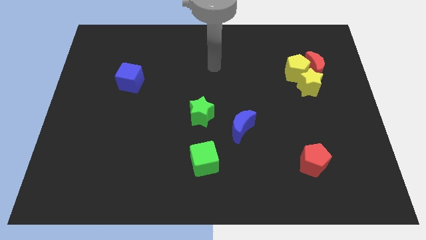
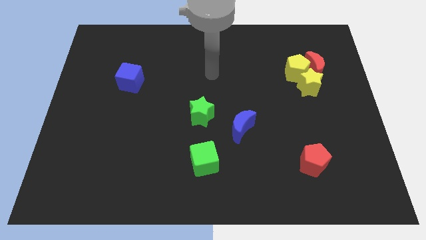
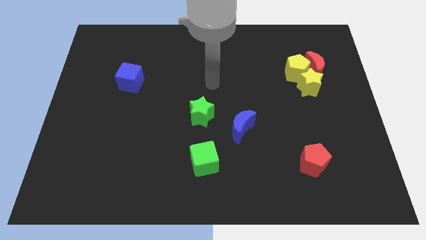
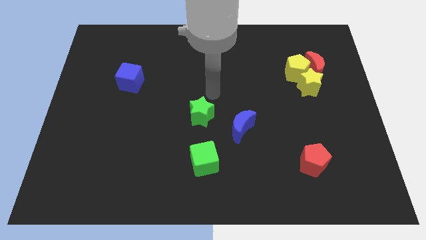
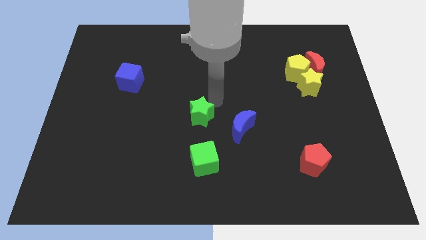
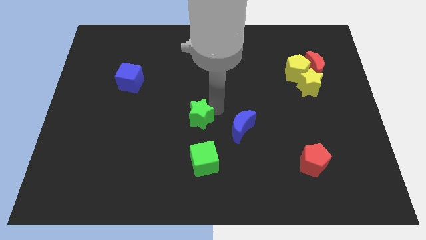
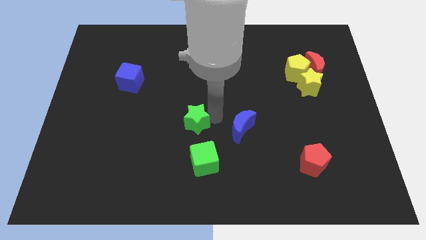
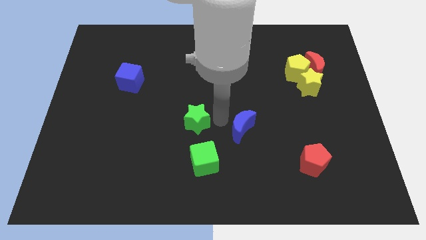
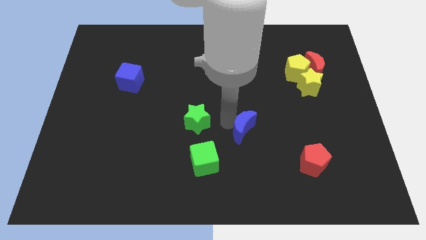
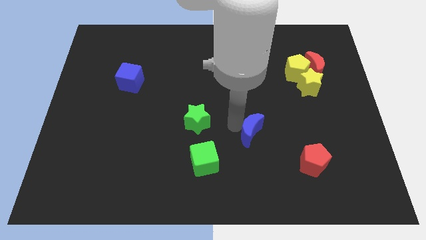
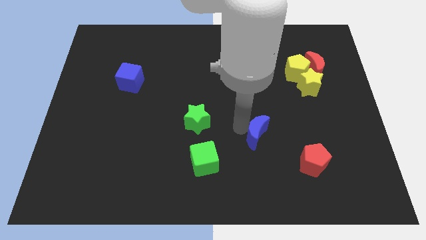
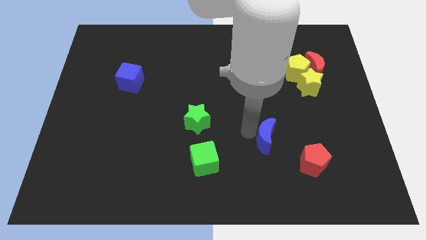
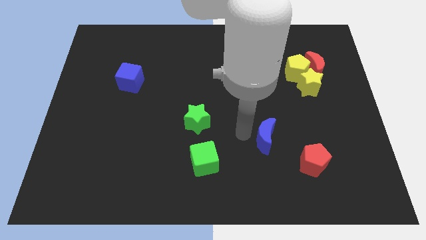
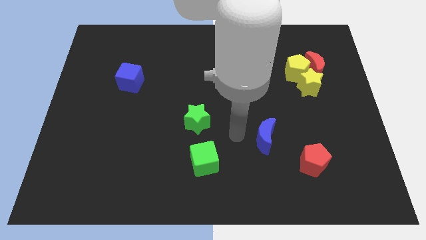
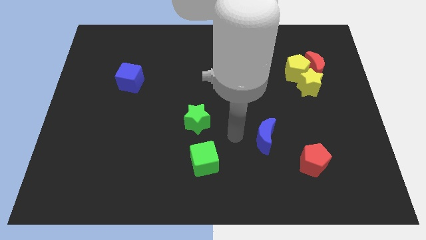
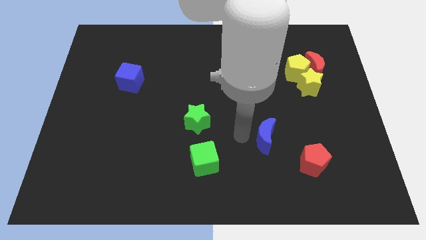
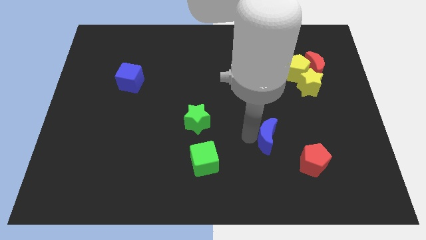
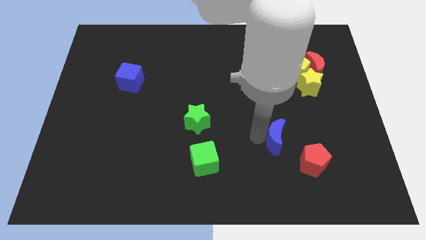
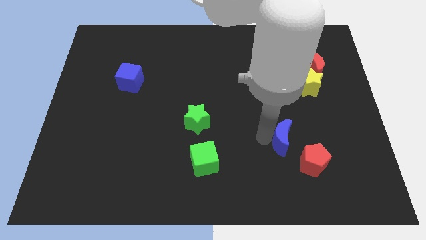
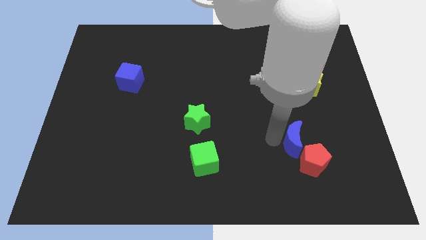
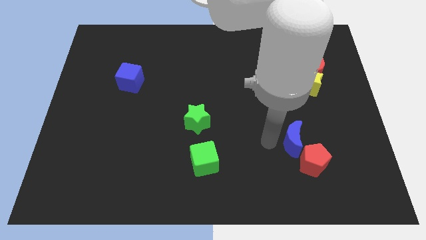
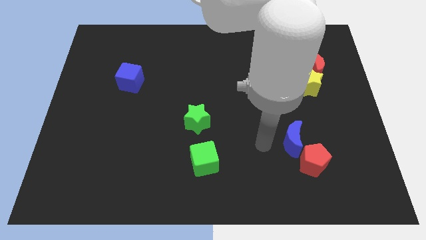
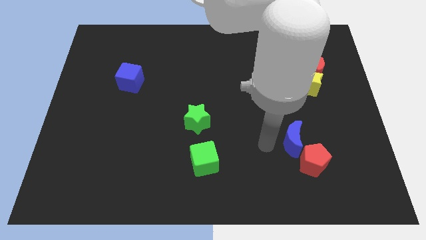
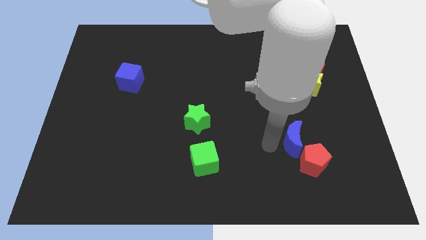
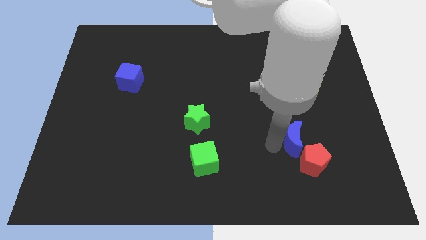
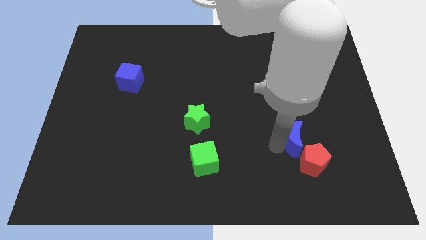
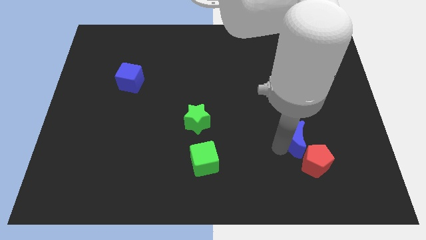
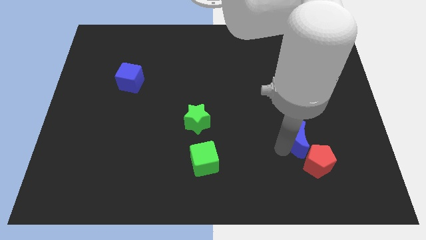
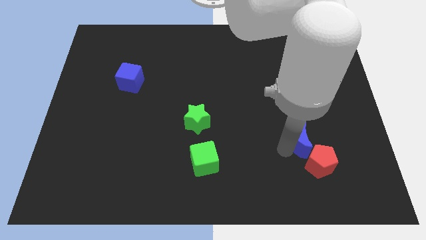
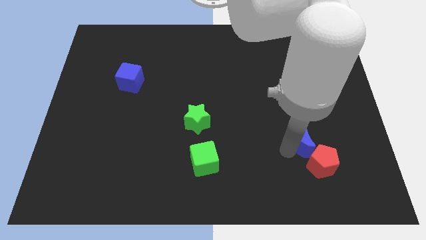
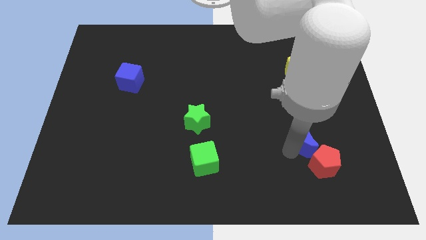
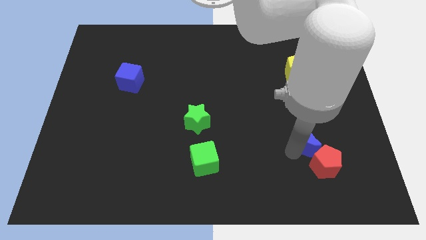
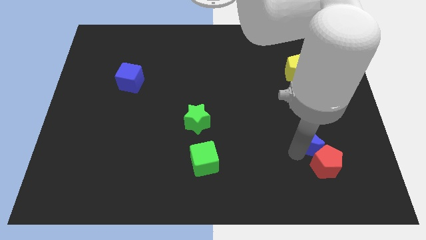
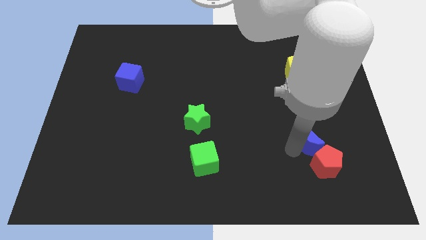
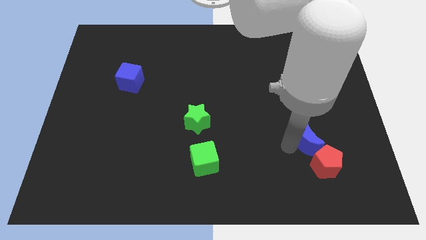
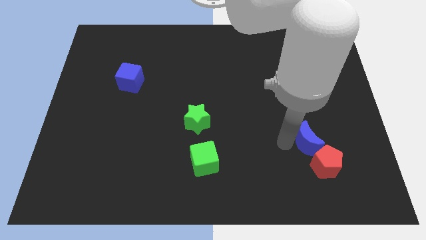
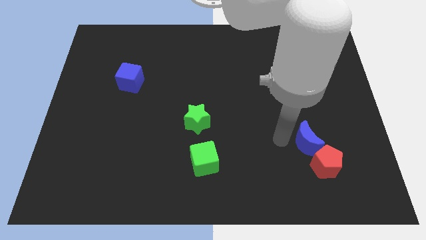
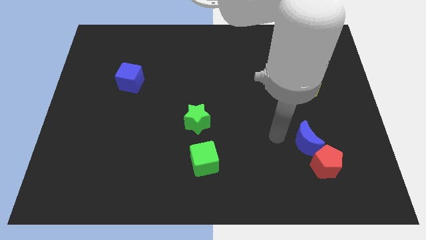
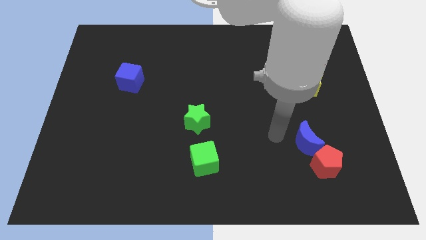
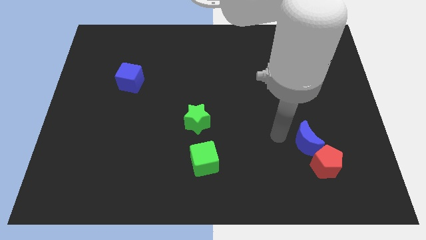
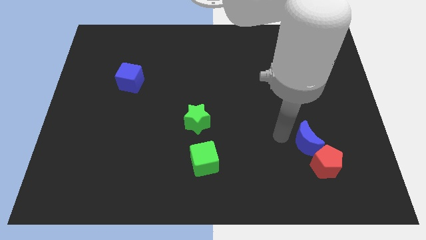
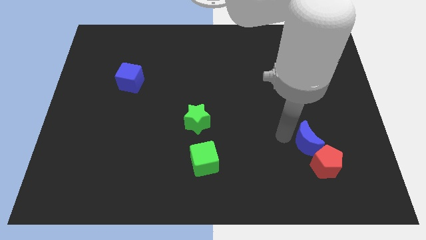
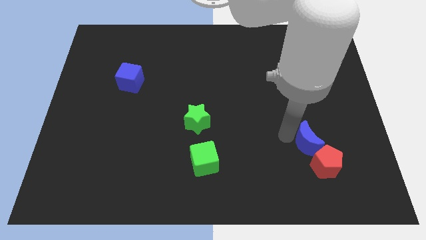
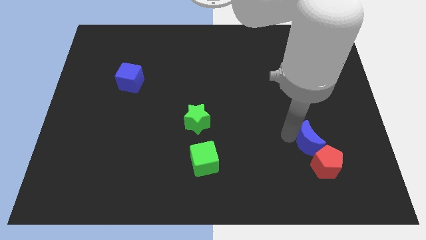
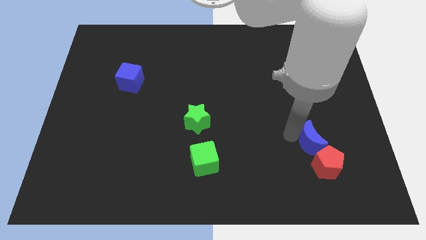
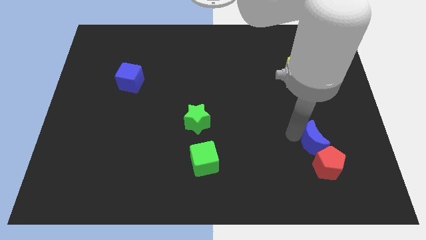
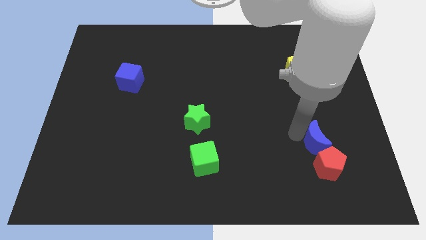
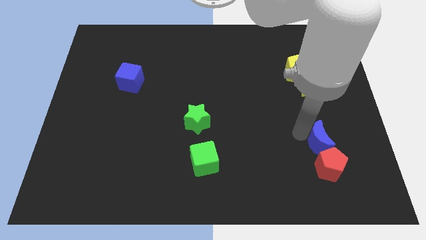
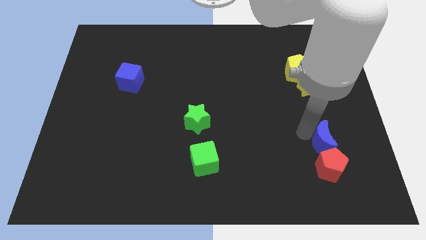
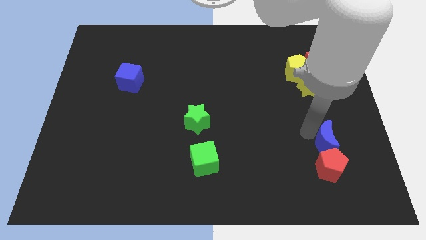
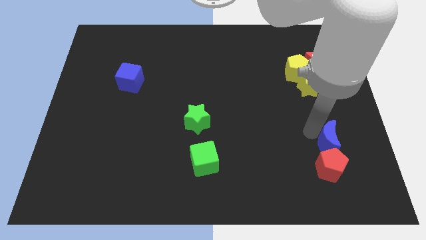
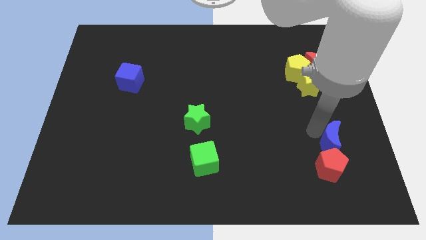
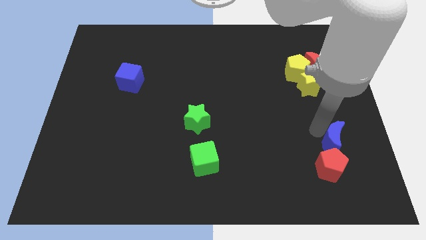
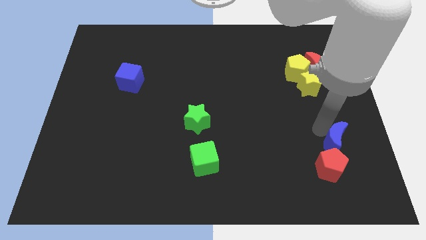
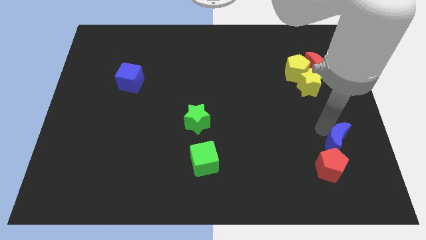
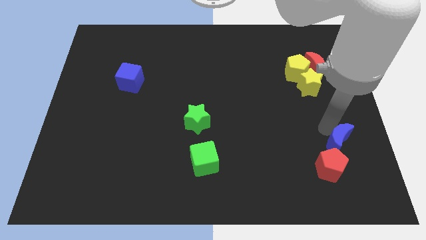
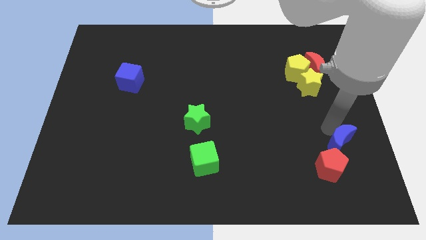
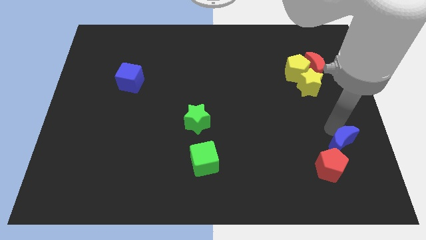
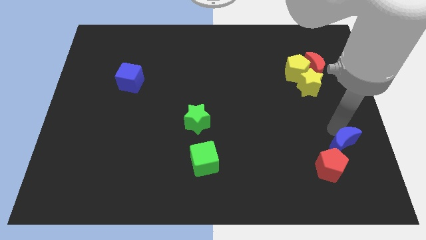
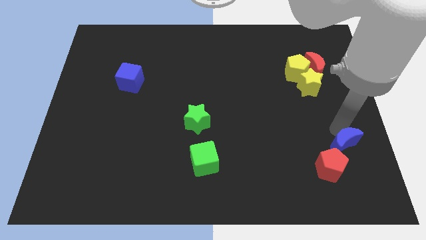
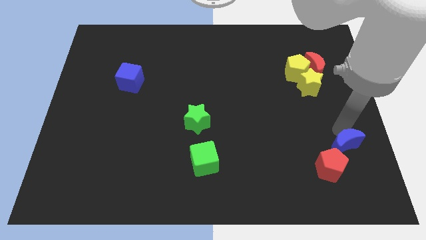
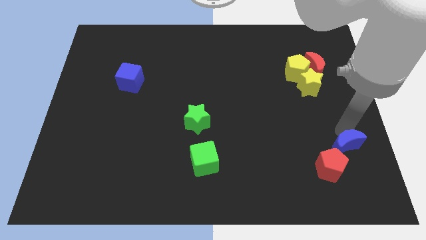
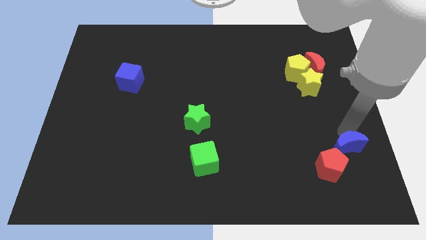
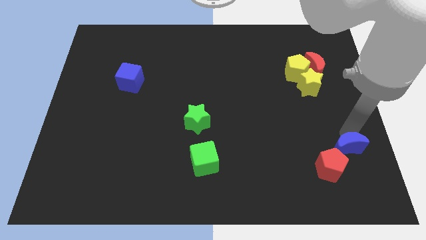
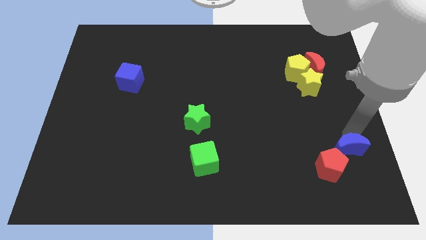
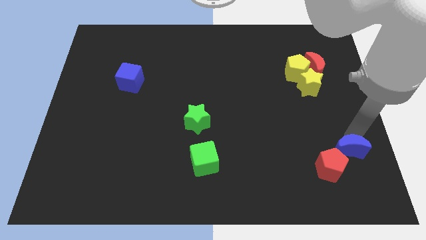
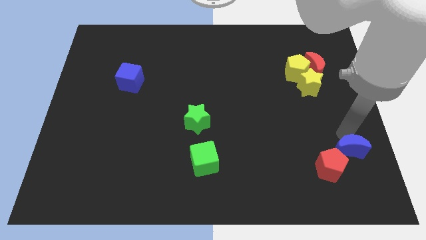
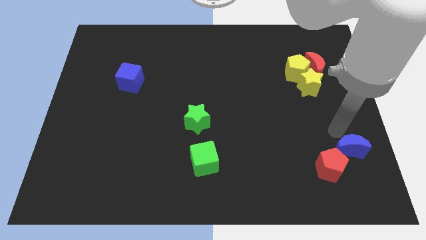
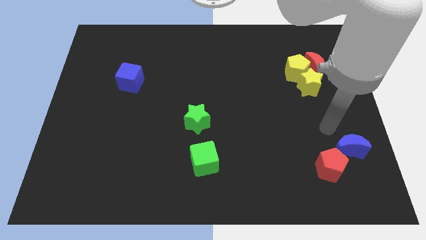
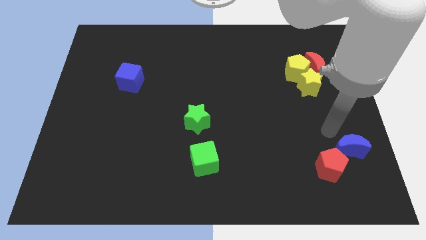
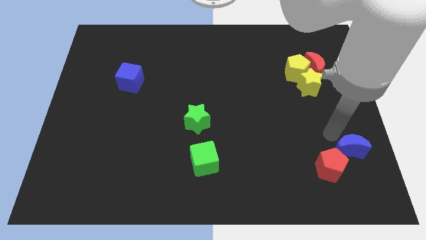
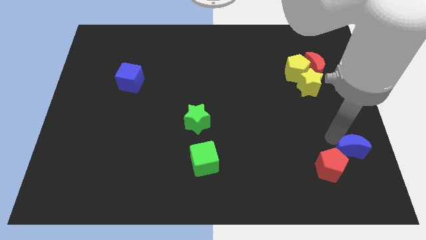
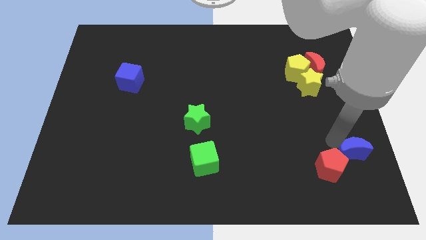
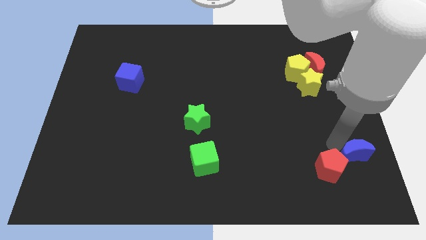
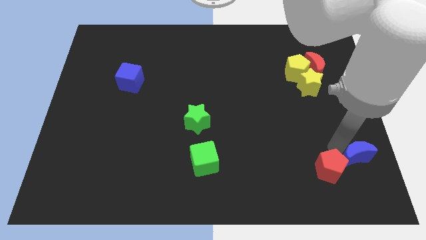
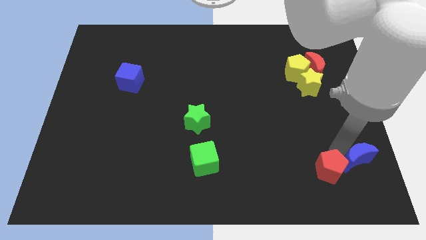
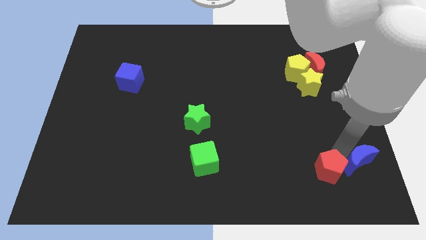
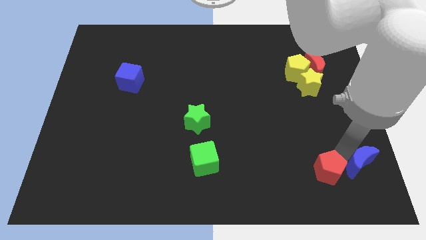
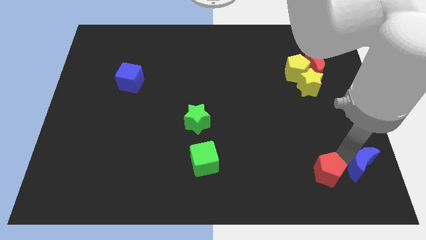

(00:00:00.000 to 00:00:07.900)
push the blue moon to the bottom right
